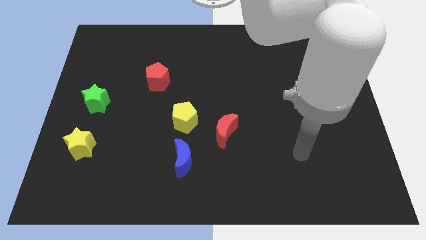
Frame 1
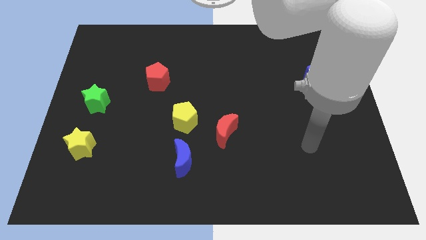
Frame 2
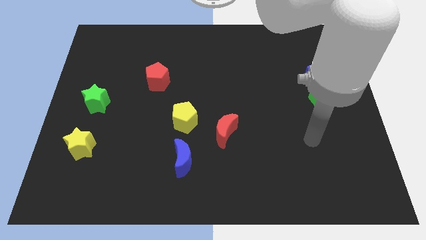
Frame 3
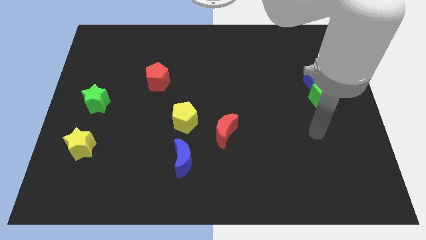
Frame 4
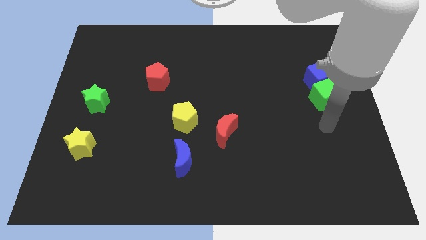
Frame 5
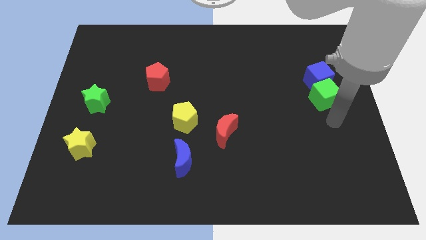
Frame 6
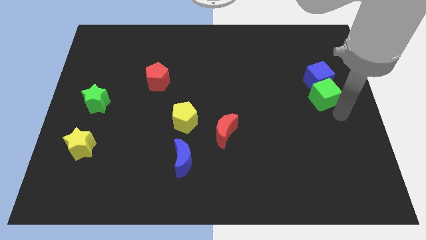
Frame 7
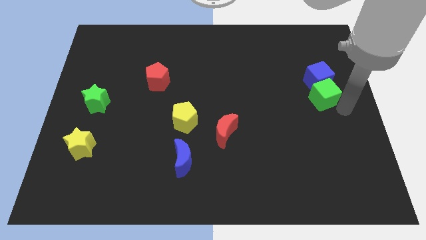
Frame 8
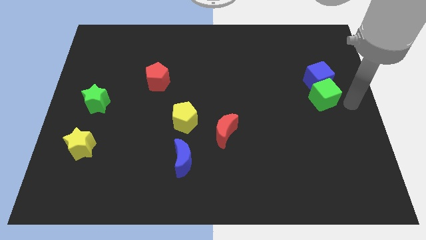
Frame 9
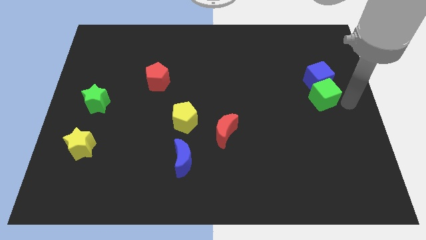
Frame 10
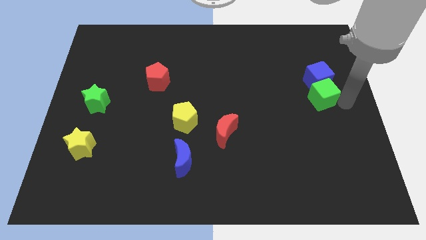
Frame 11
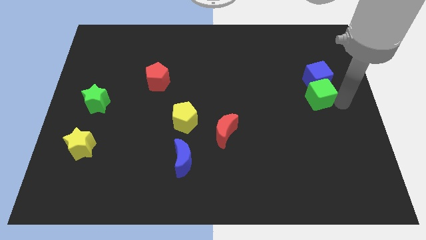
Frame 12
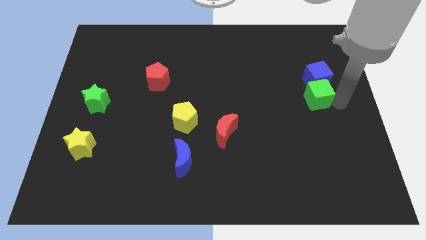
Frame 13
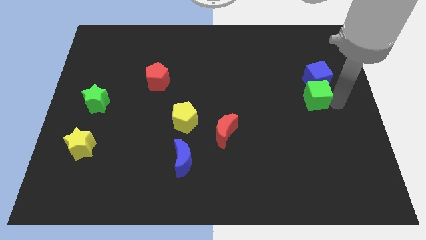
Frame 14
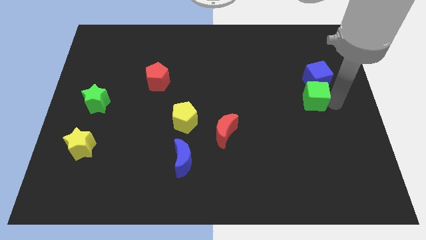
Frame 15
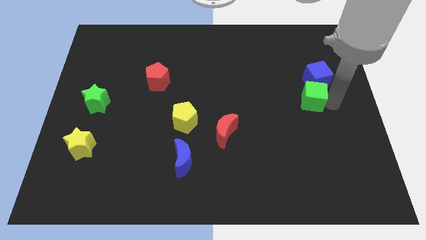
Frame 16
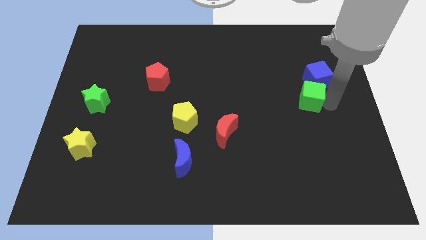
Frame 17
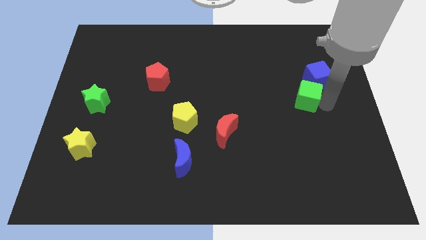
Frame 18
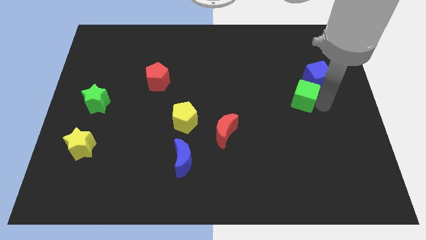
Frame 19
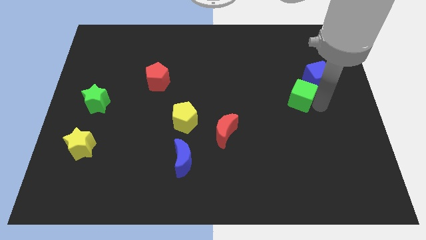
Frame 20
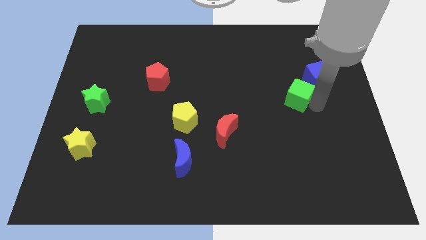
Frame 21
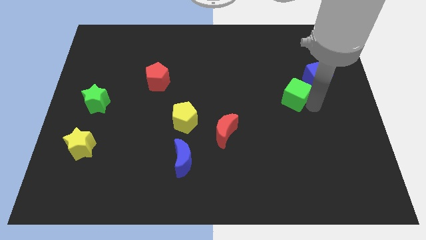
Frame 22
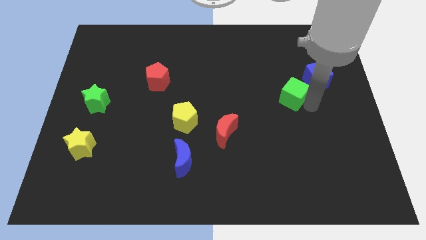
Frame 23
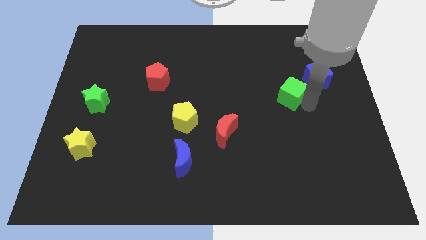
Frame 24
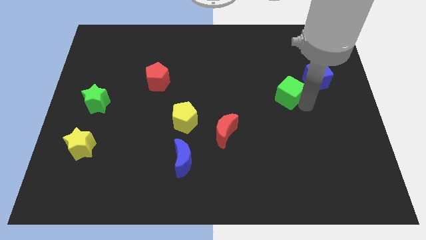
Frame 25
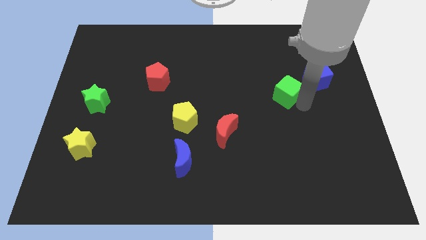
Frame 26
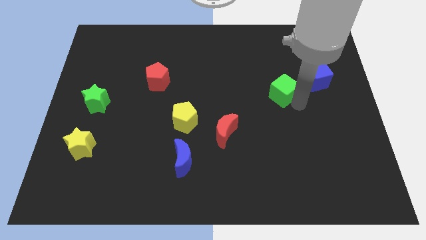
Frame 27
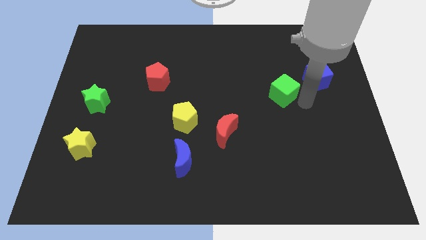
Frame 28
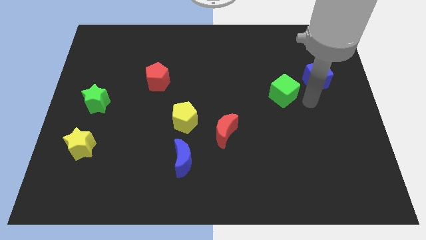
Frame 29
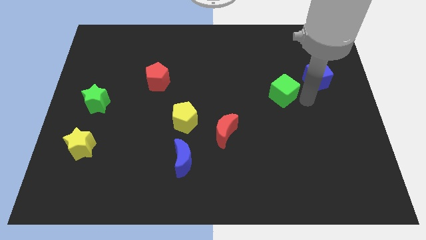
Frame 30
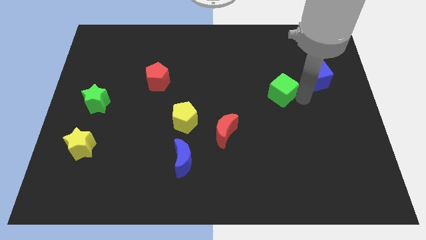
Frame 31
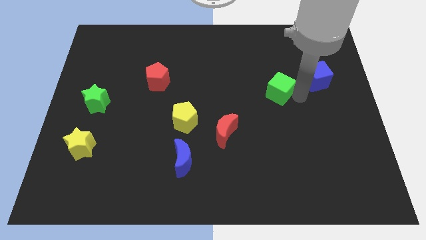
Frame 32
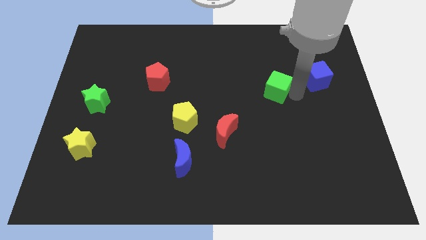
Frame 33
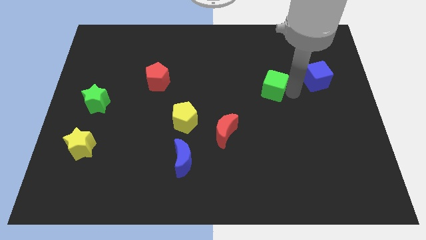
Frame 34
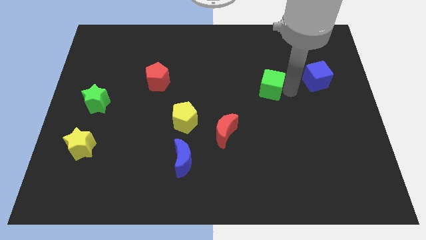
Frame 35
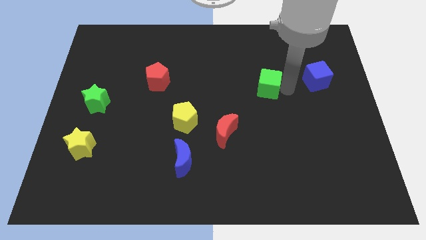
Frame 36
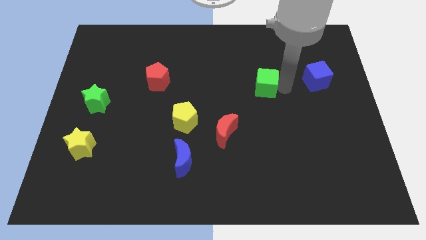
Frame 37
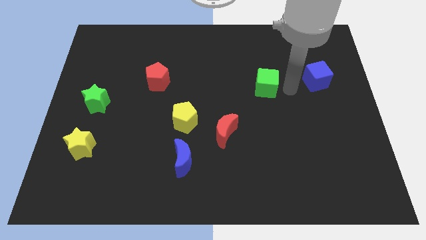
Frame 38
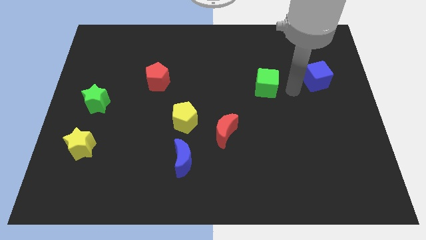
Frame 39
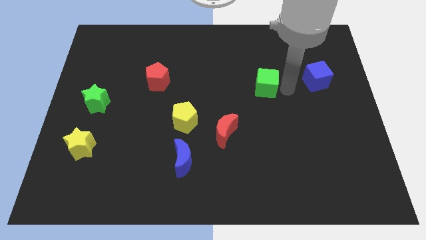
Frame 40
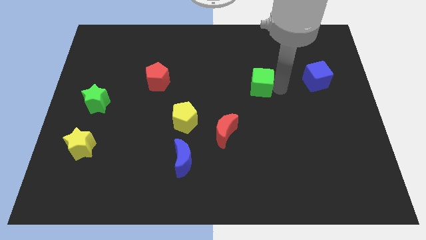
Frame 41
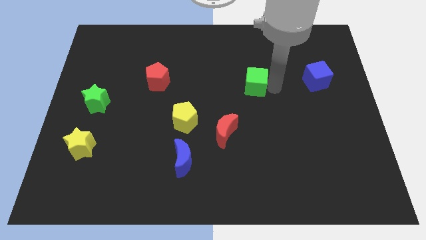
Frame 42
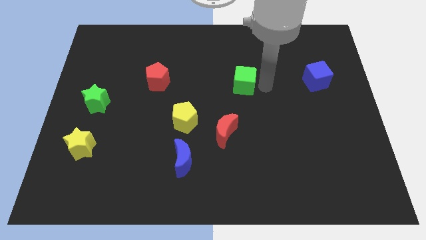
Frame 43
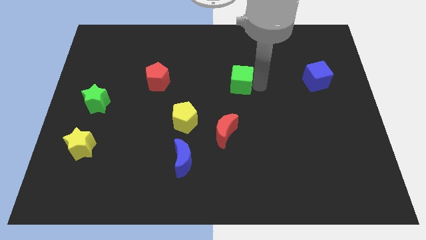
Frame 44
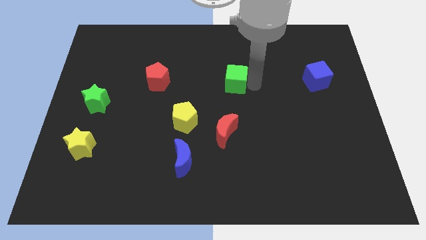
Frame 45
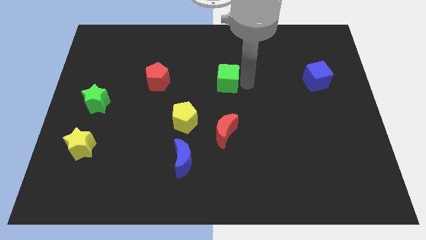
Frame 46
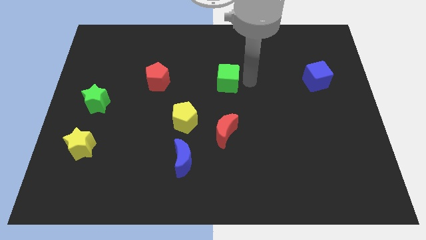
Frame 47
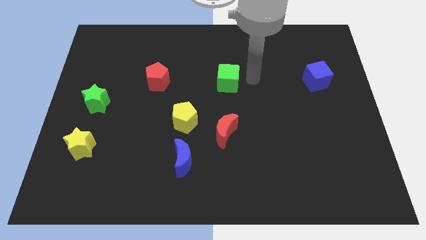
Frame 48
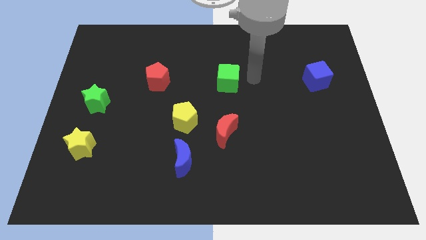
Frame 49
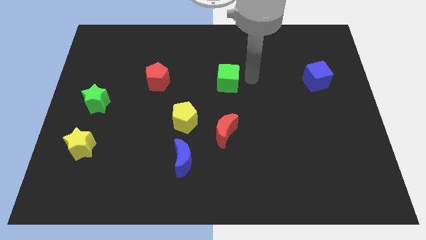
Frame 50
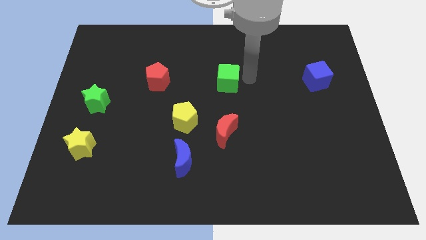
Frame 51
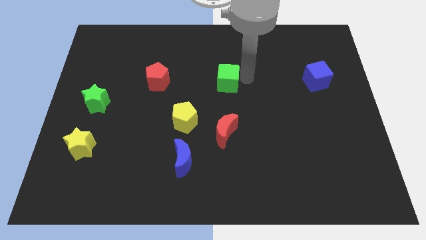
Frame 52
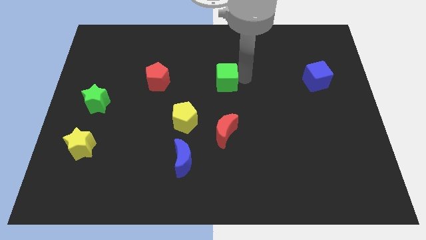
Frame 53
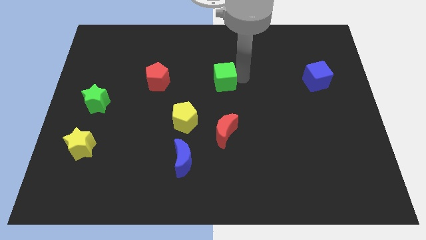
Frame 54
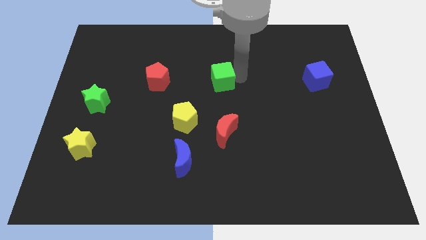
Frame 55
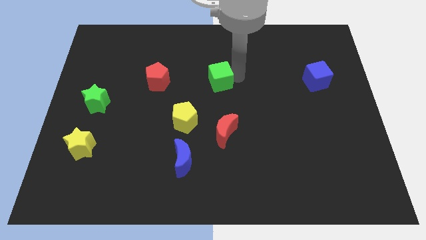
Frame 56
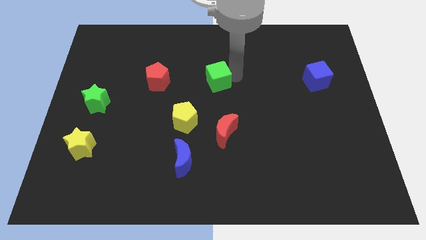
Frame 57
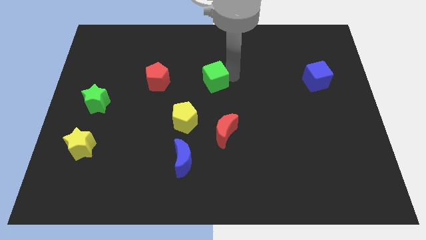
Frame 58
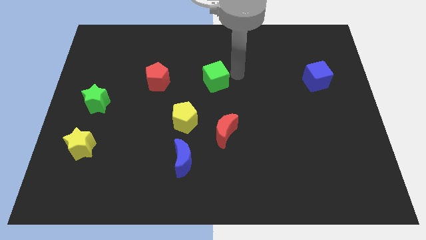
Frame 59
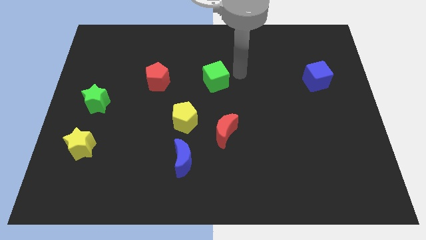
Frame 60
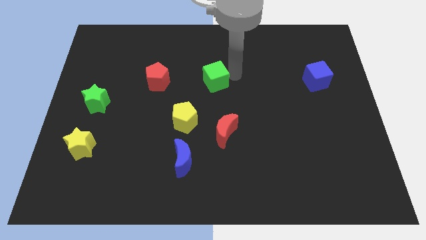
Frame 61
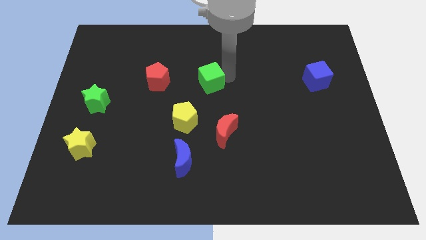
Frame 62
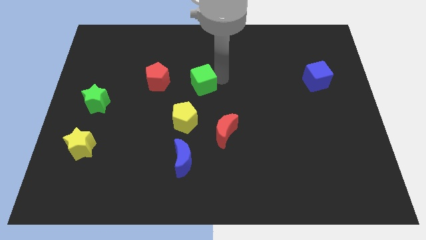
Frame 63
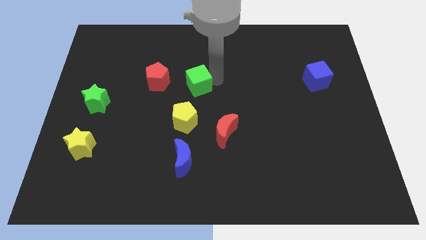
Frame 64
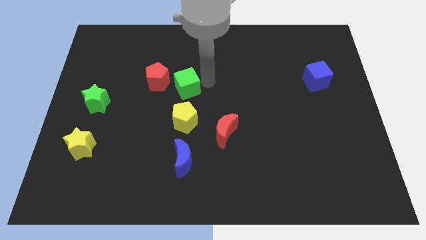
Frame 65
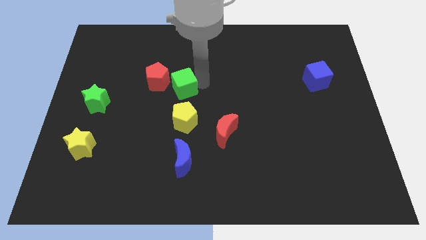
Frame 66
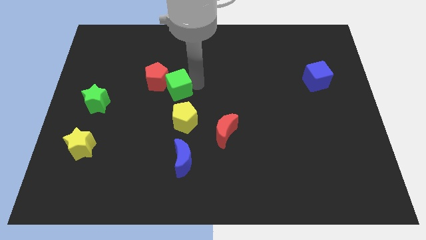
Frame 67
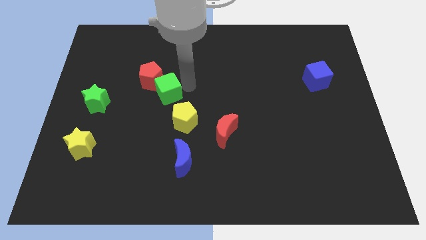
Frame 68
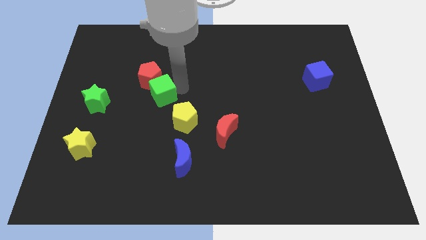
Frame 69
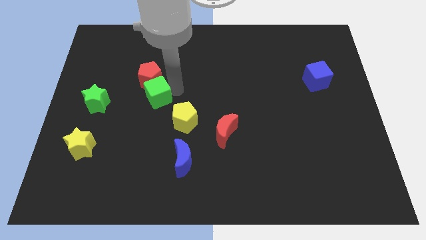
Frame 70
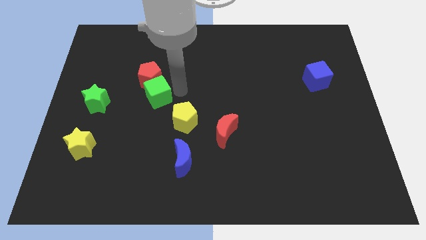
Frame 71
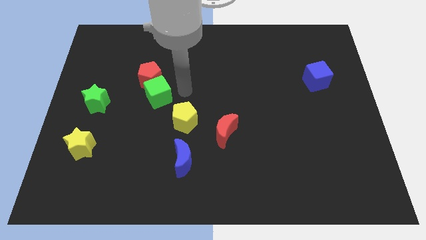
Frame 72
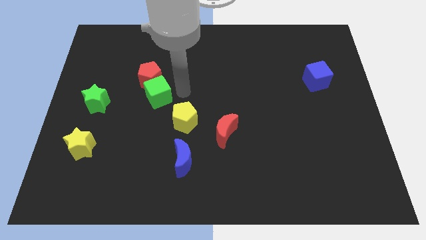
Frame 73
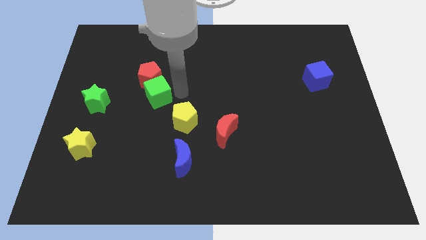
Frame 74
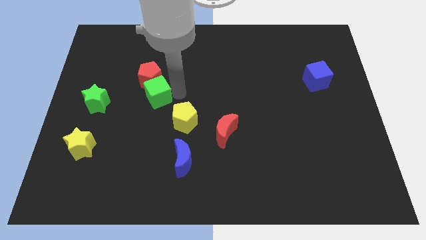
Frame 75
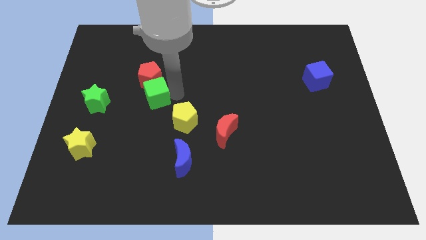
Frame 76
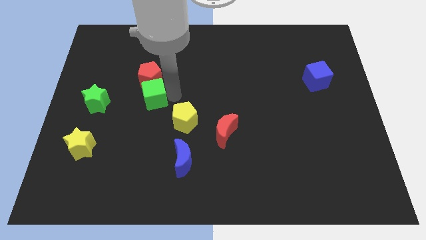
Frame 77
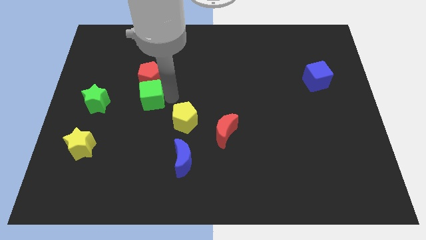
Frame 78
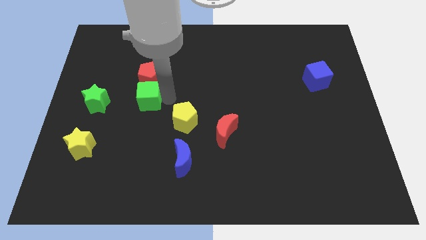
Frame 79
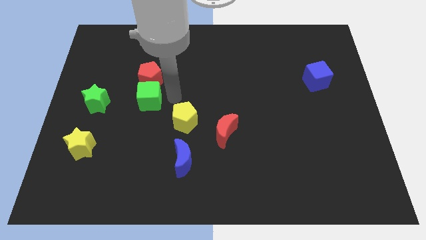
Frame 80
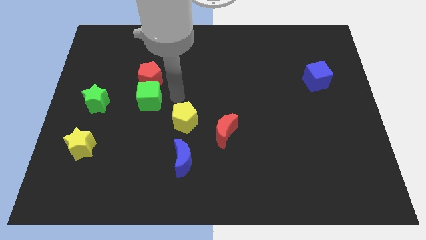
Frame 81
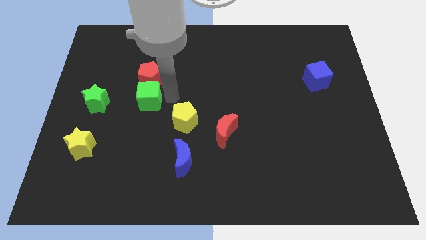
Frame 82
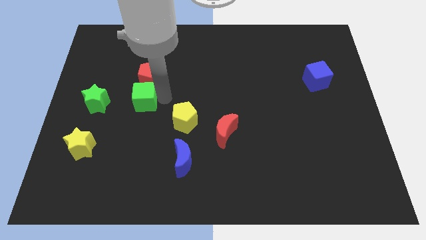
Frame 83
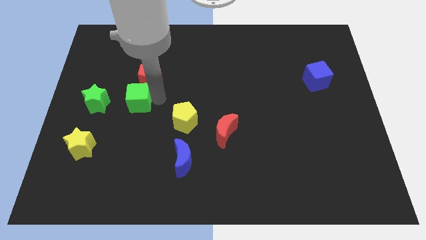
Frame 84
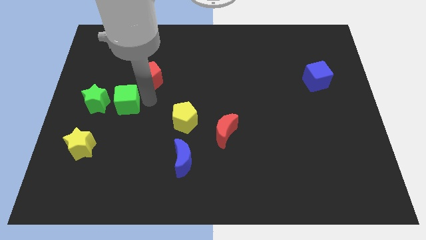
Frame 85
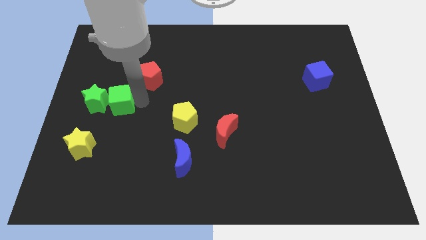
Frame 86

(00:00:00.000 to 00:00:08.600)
slide the green cube to the green star
